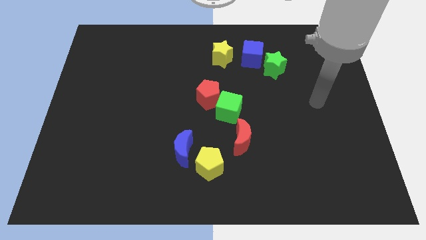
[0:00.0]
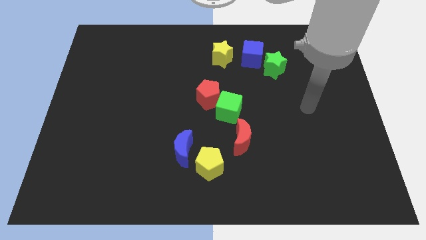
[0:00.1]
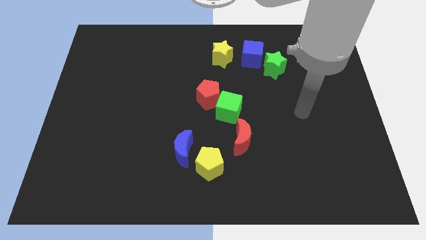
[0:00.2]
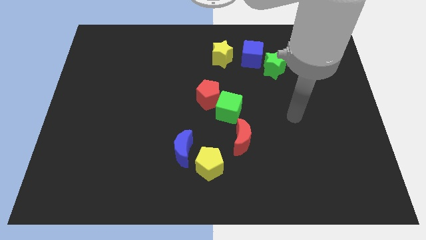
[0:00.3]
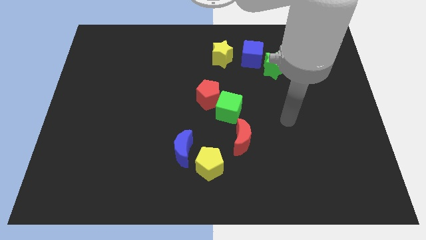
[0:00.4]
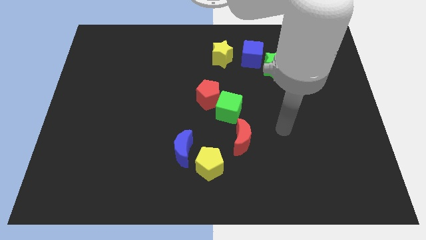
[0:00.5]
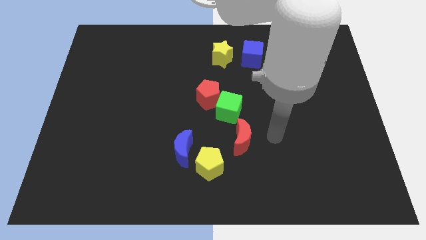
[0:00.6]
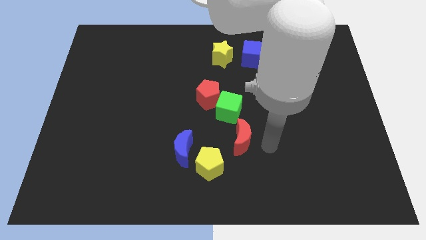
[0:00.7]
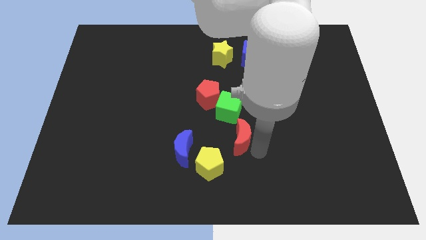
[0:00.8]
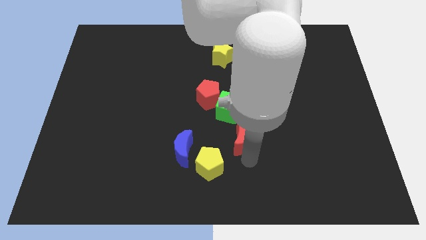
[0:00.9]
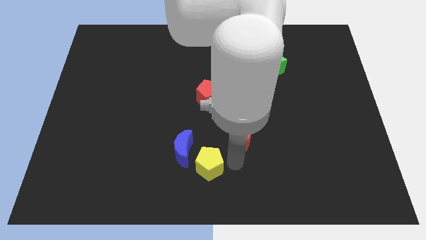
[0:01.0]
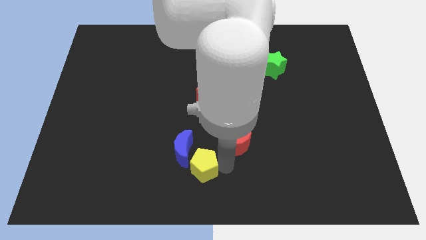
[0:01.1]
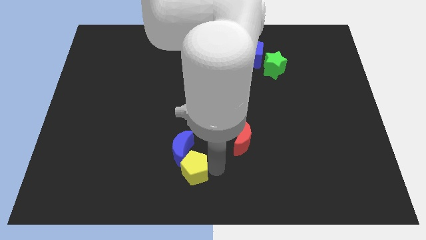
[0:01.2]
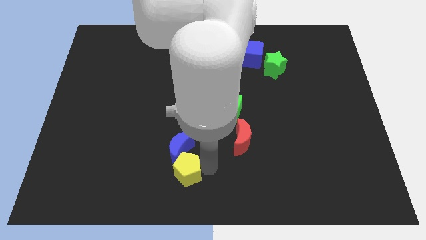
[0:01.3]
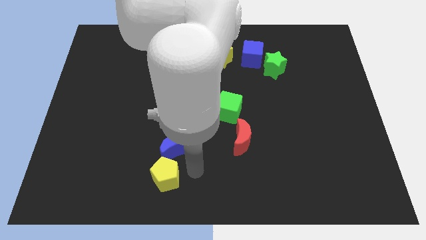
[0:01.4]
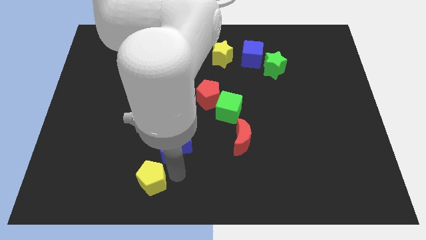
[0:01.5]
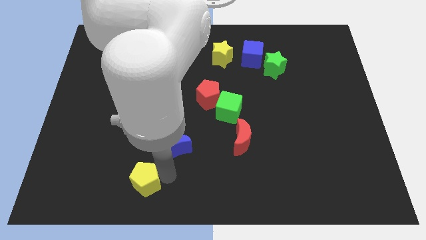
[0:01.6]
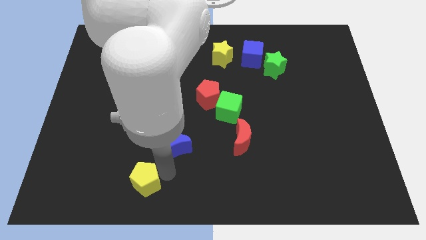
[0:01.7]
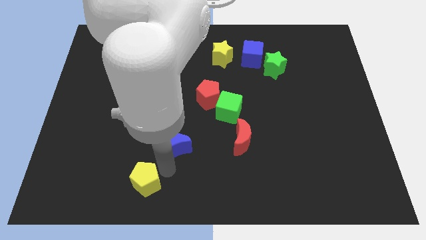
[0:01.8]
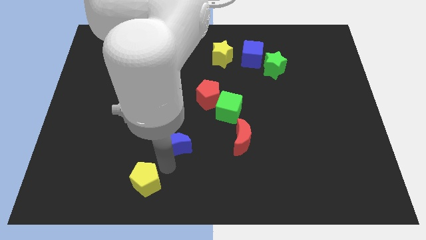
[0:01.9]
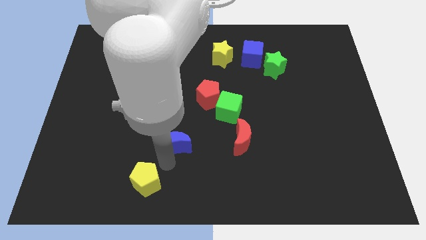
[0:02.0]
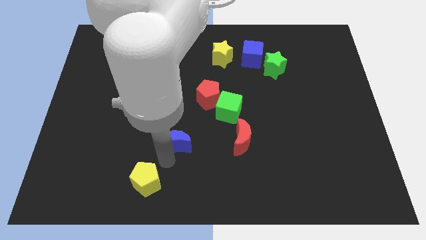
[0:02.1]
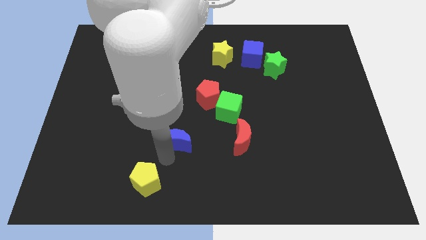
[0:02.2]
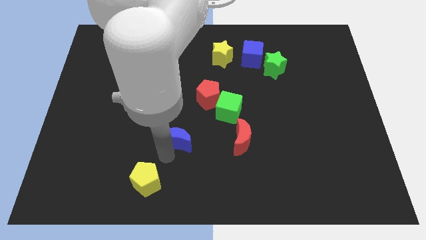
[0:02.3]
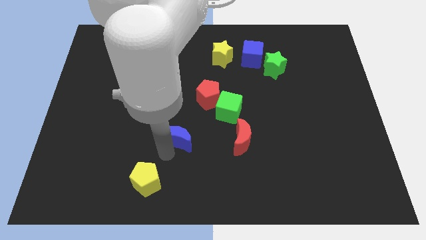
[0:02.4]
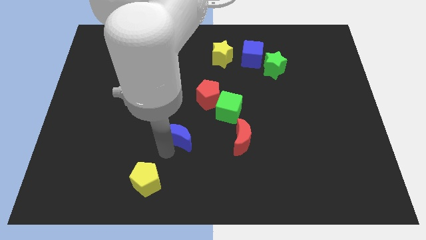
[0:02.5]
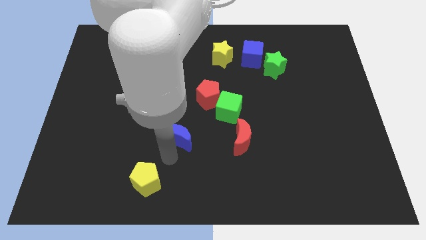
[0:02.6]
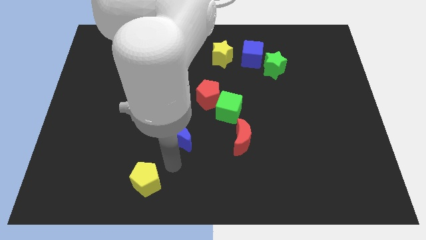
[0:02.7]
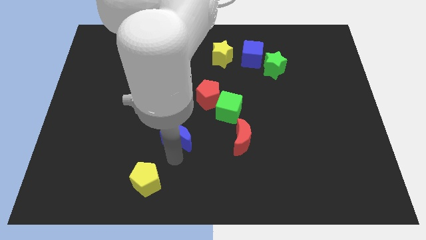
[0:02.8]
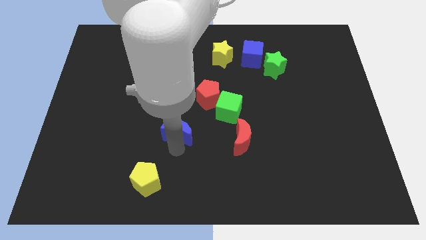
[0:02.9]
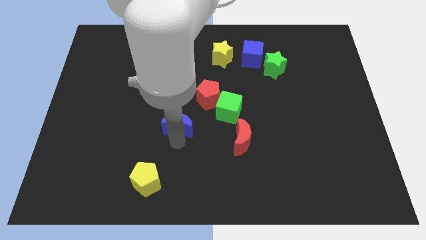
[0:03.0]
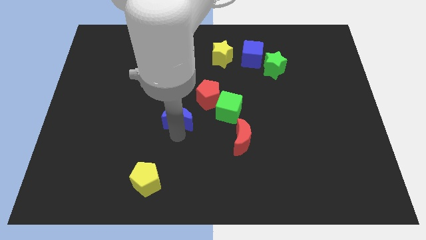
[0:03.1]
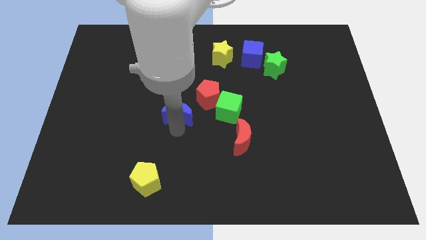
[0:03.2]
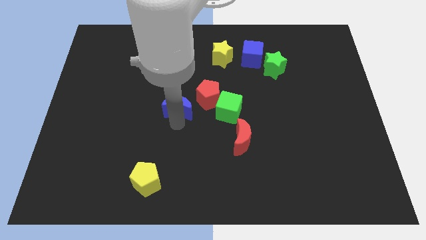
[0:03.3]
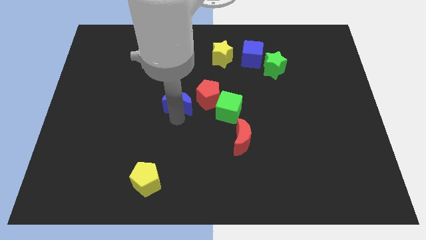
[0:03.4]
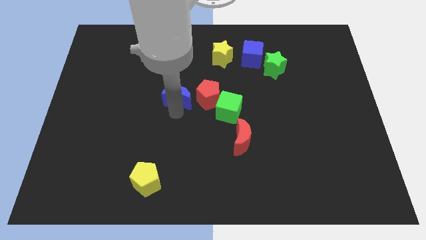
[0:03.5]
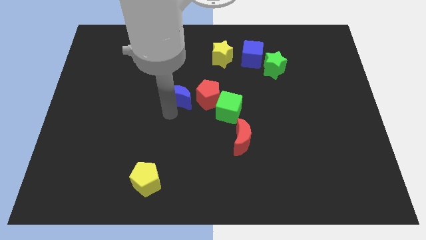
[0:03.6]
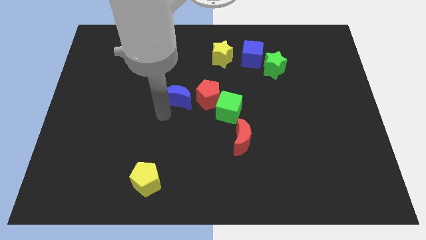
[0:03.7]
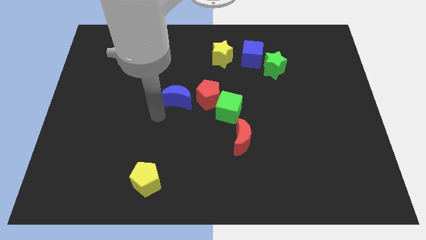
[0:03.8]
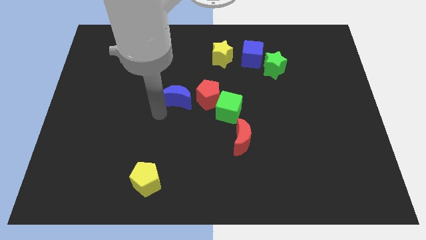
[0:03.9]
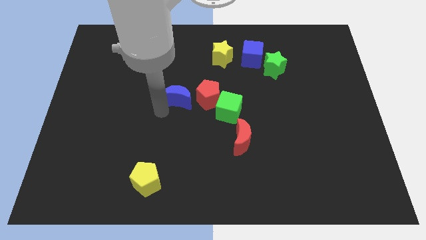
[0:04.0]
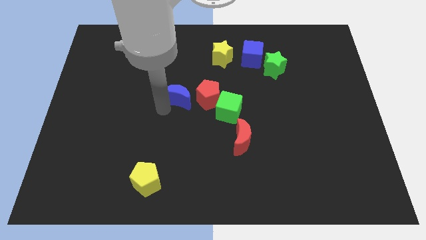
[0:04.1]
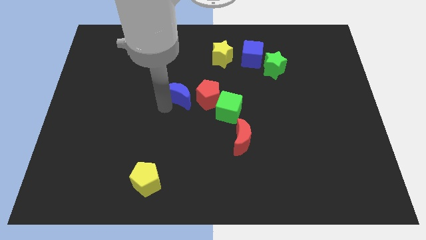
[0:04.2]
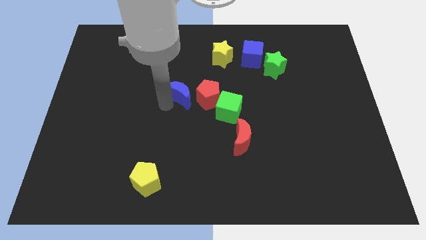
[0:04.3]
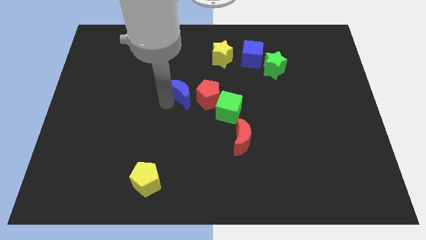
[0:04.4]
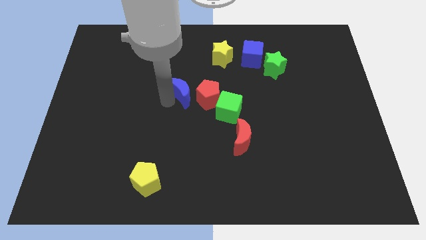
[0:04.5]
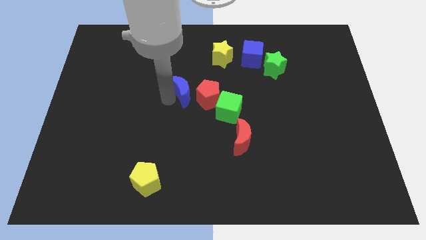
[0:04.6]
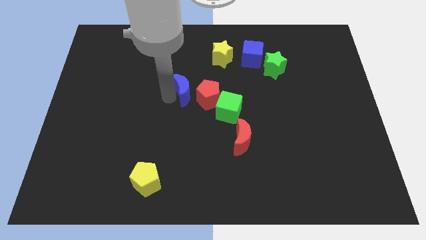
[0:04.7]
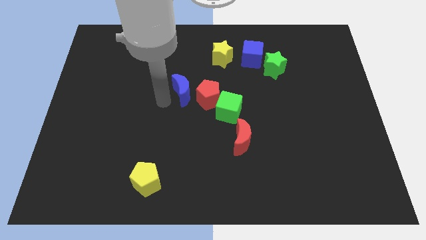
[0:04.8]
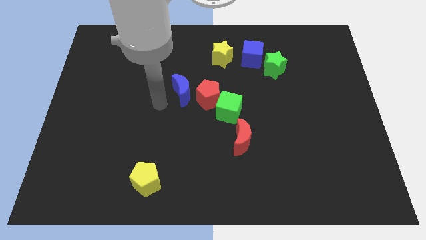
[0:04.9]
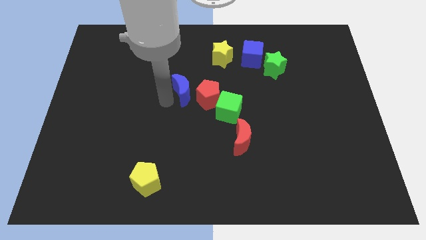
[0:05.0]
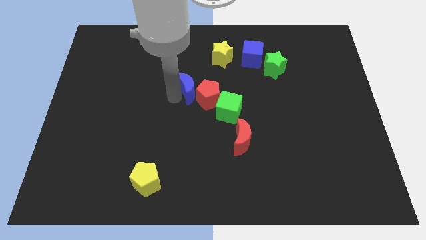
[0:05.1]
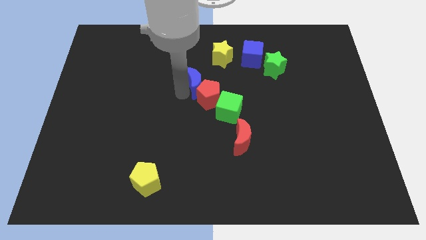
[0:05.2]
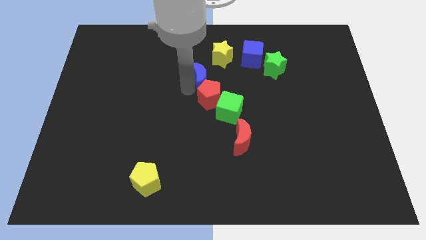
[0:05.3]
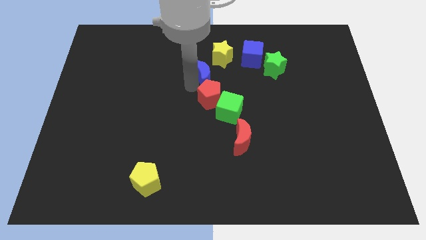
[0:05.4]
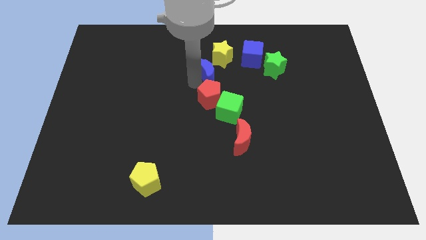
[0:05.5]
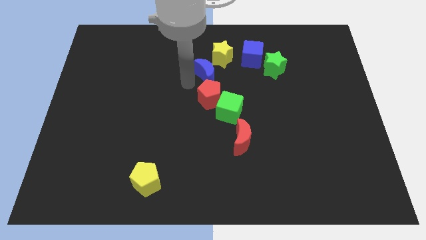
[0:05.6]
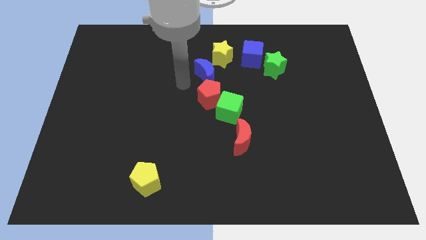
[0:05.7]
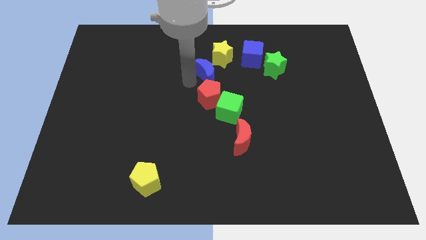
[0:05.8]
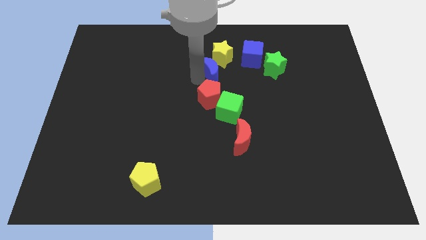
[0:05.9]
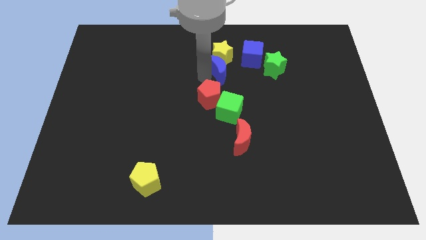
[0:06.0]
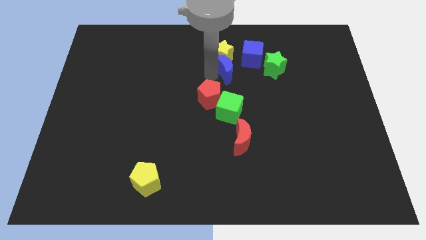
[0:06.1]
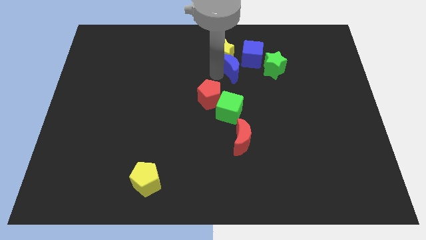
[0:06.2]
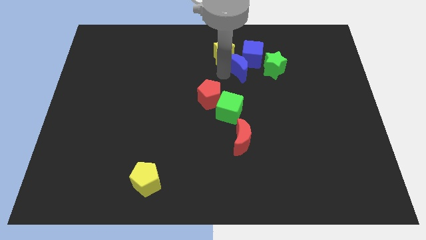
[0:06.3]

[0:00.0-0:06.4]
push the blue moon to the blue cube

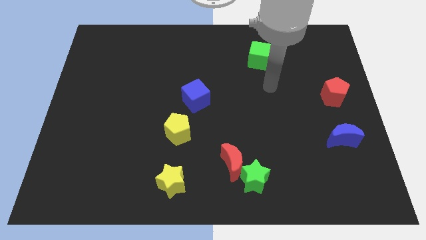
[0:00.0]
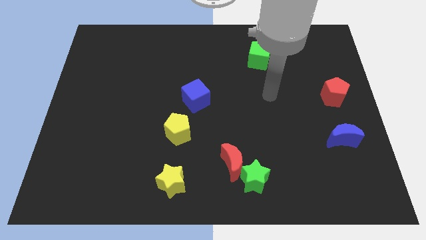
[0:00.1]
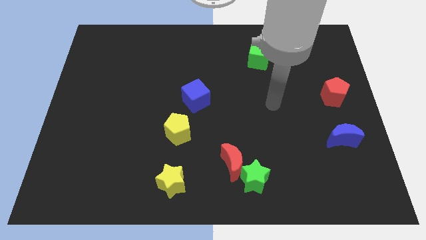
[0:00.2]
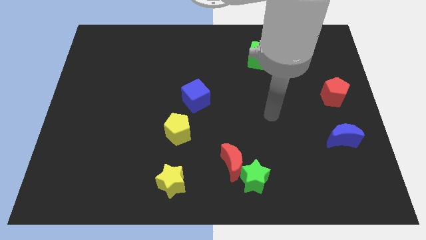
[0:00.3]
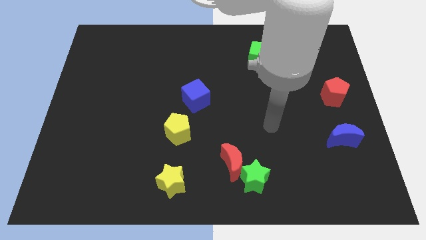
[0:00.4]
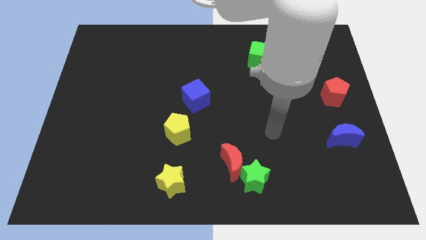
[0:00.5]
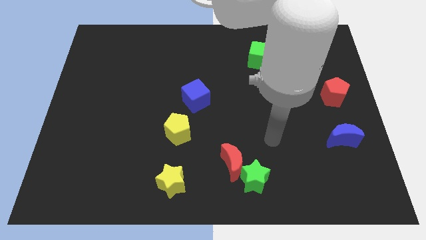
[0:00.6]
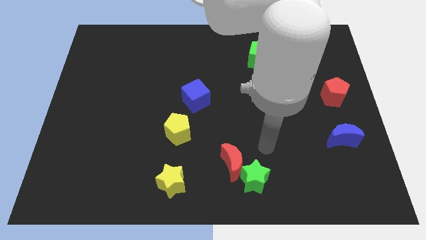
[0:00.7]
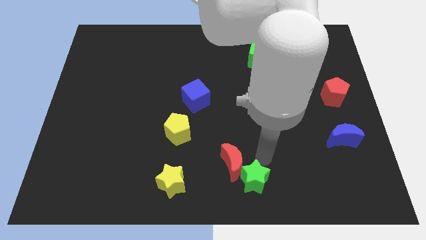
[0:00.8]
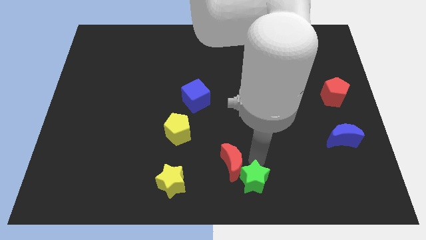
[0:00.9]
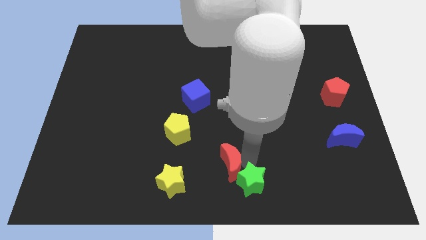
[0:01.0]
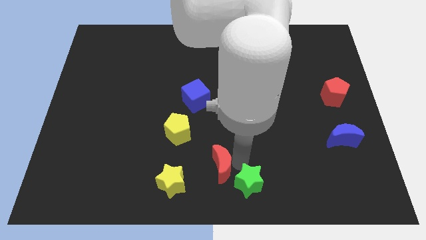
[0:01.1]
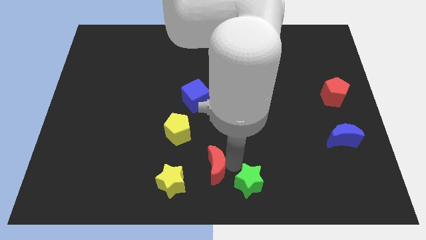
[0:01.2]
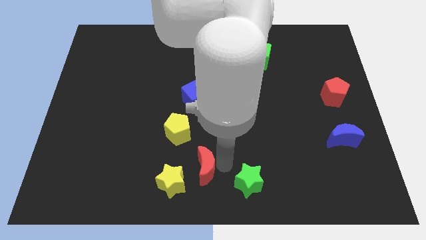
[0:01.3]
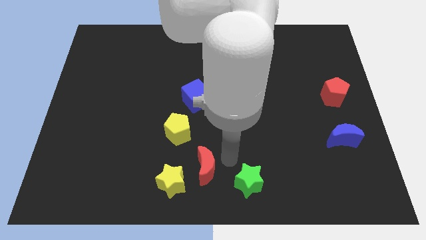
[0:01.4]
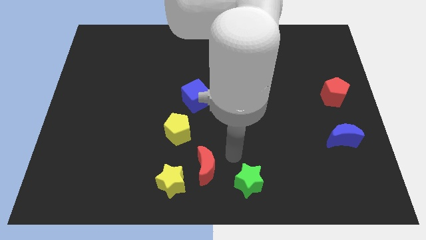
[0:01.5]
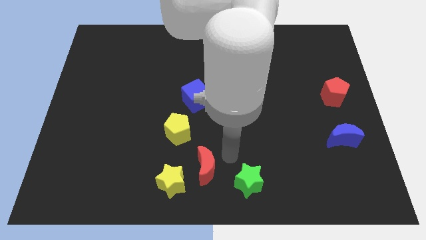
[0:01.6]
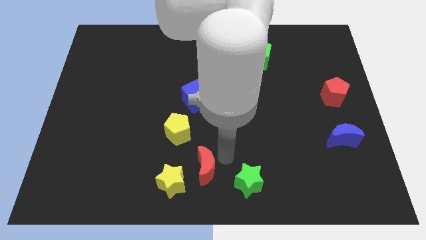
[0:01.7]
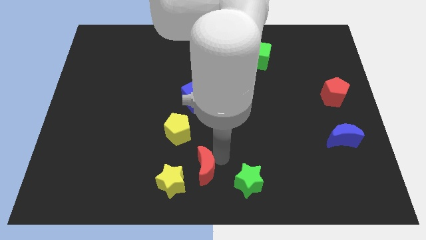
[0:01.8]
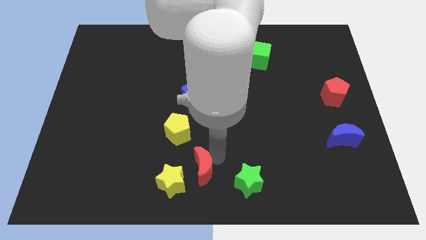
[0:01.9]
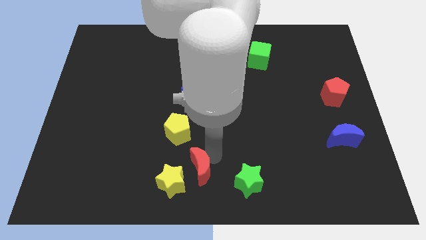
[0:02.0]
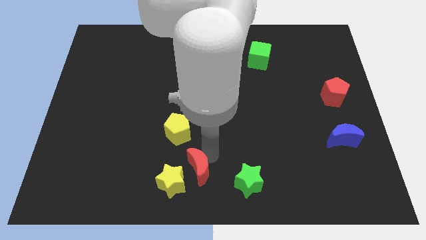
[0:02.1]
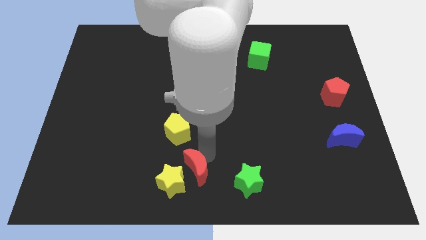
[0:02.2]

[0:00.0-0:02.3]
push the red moon to the yellow star
